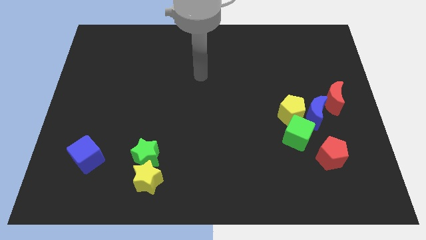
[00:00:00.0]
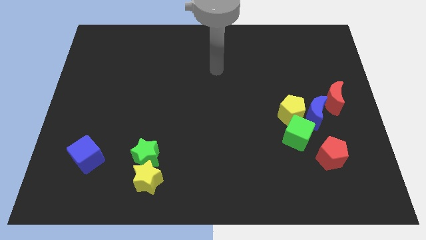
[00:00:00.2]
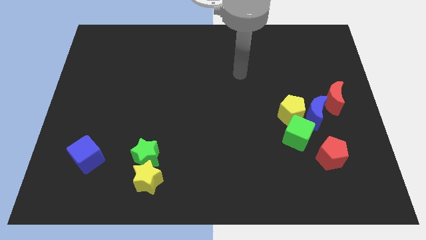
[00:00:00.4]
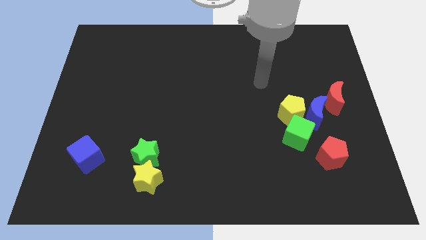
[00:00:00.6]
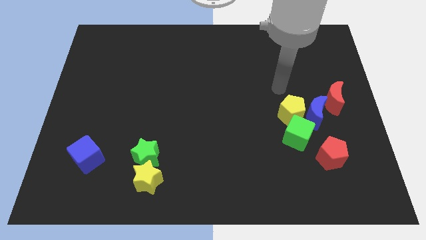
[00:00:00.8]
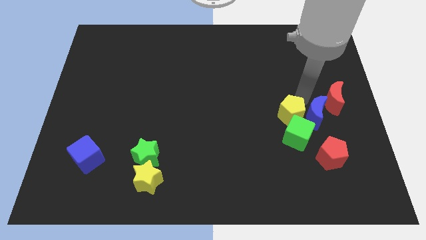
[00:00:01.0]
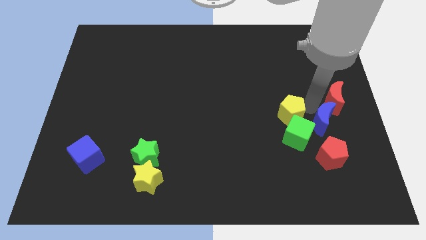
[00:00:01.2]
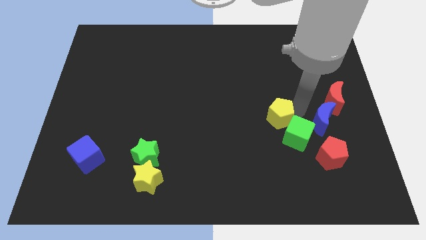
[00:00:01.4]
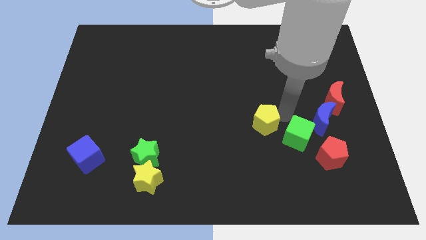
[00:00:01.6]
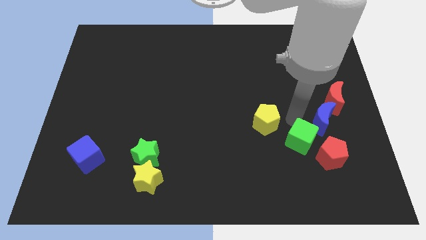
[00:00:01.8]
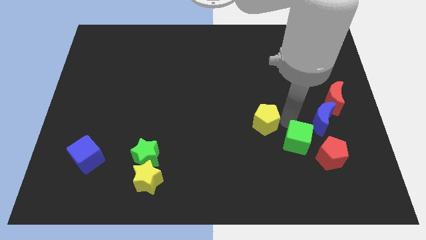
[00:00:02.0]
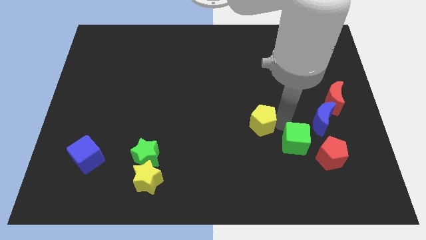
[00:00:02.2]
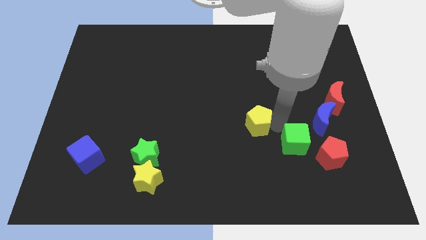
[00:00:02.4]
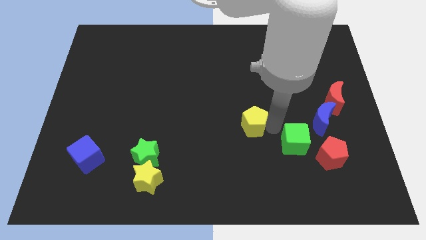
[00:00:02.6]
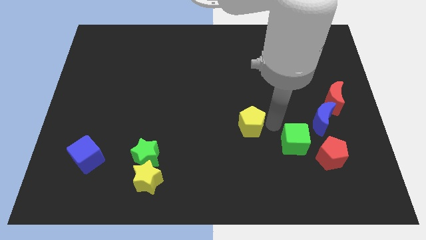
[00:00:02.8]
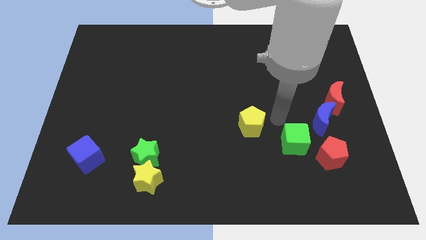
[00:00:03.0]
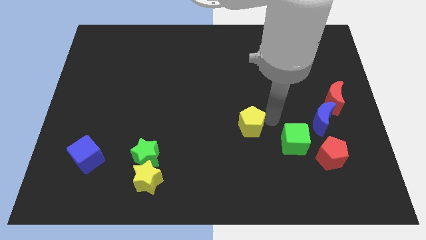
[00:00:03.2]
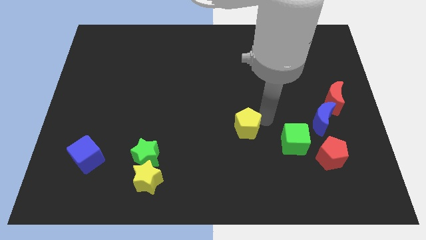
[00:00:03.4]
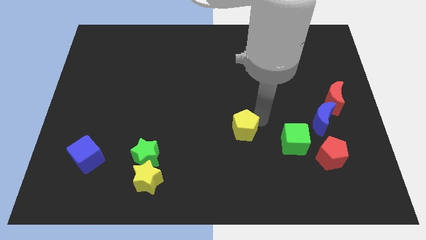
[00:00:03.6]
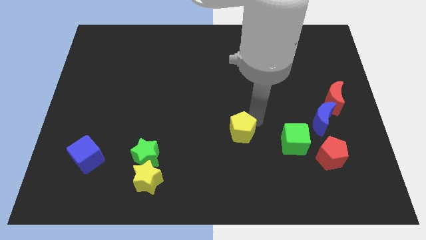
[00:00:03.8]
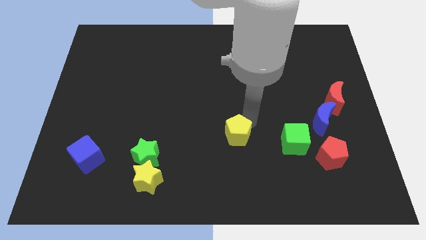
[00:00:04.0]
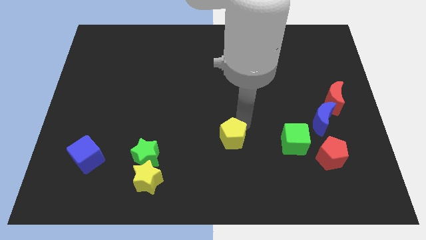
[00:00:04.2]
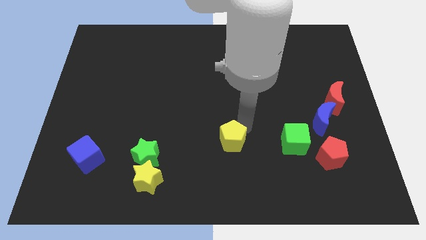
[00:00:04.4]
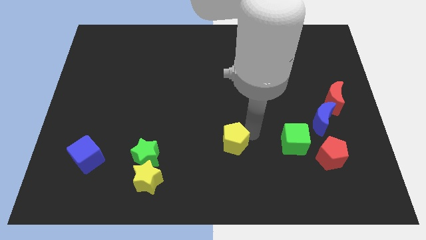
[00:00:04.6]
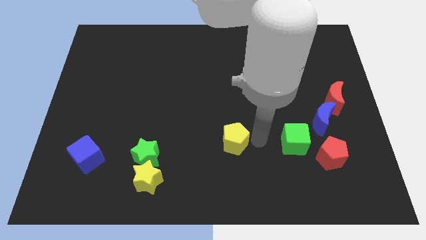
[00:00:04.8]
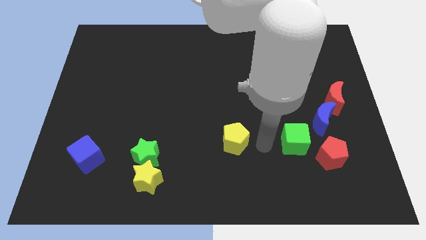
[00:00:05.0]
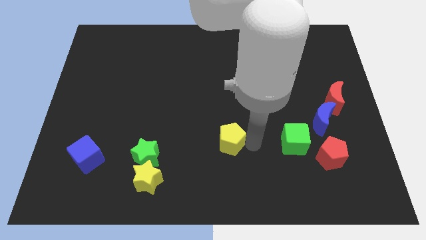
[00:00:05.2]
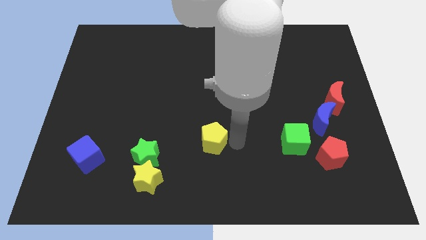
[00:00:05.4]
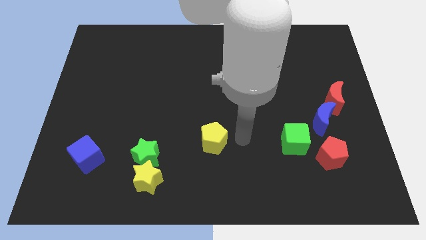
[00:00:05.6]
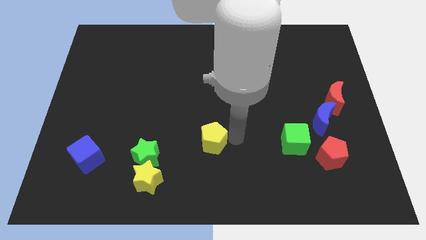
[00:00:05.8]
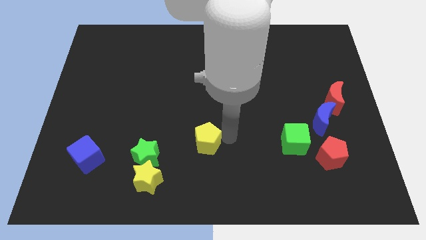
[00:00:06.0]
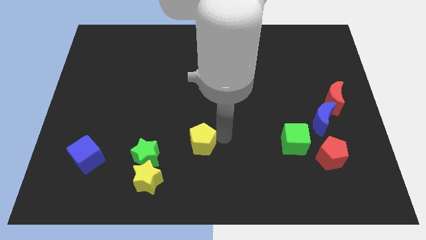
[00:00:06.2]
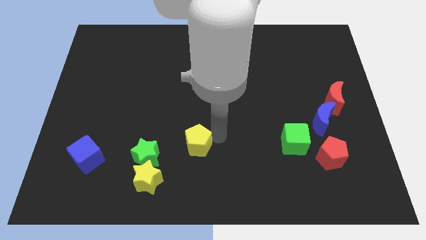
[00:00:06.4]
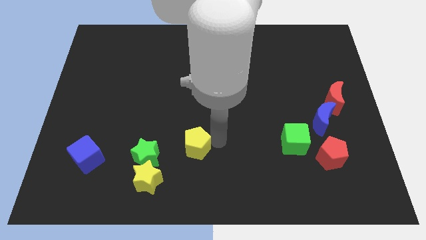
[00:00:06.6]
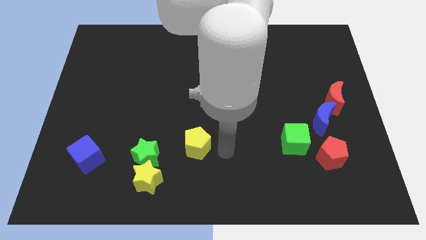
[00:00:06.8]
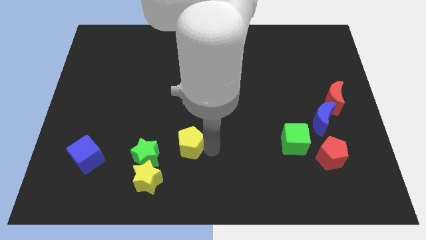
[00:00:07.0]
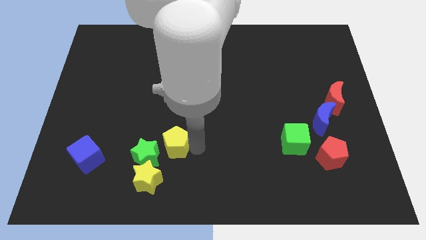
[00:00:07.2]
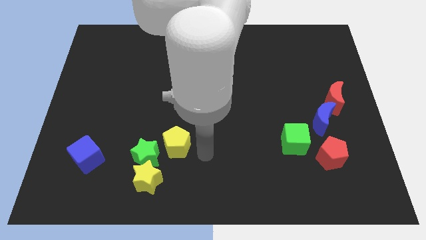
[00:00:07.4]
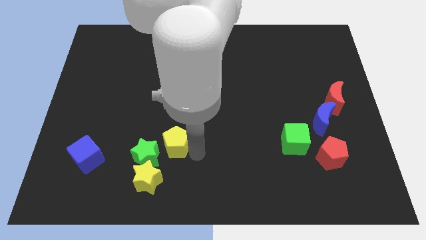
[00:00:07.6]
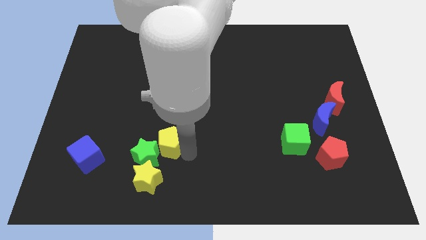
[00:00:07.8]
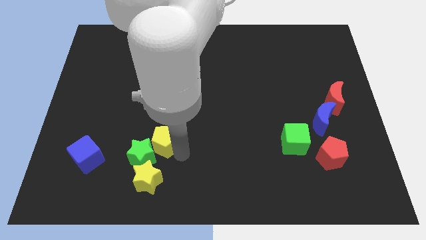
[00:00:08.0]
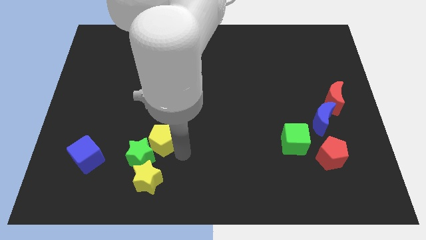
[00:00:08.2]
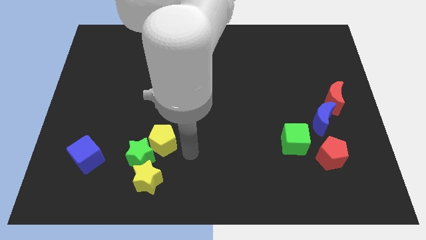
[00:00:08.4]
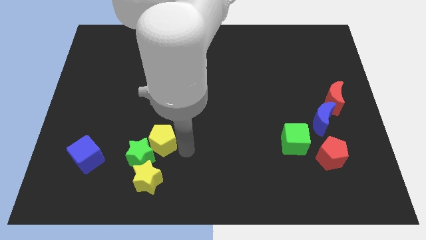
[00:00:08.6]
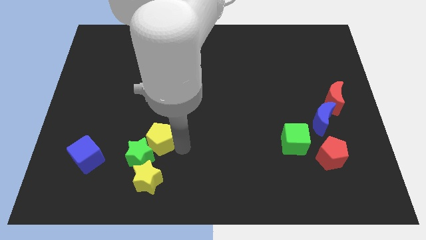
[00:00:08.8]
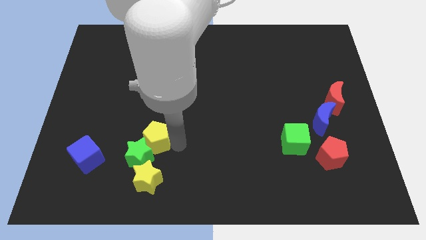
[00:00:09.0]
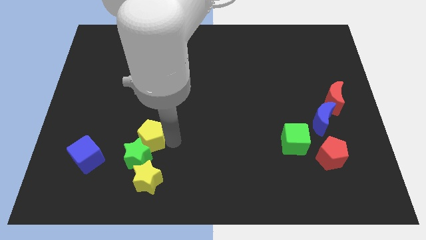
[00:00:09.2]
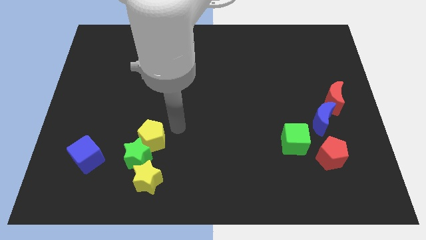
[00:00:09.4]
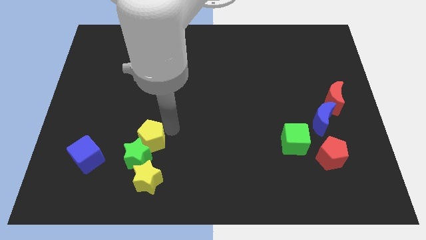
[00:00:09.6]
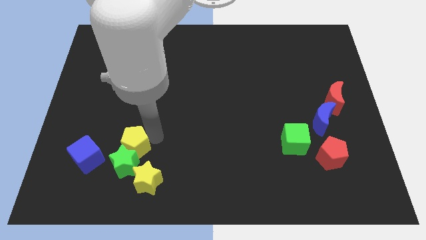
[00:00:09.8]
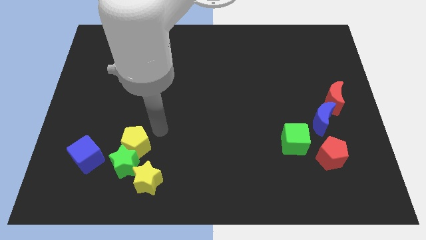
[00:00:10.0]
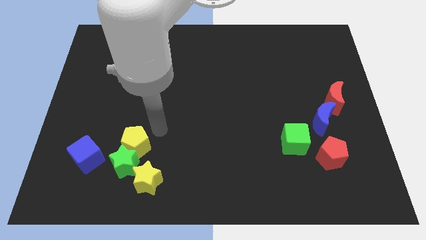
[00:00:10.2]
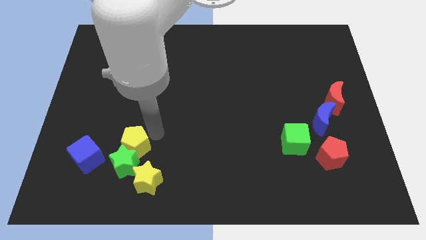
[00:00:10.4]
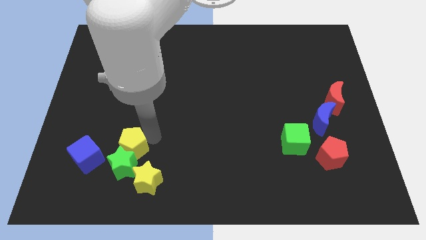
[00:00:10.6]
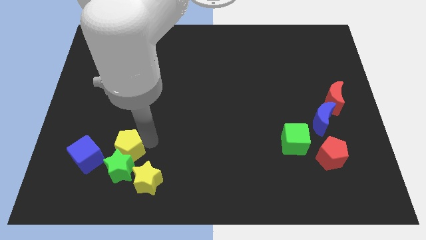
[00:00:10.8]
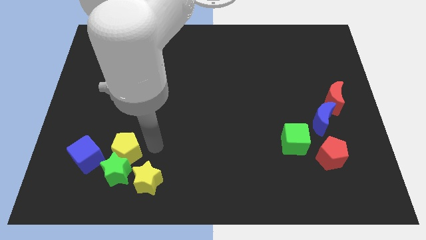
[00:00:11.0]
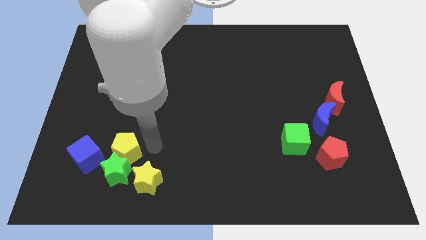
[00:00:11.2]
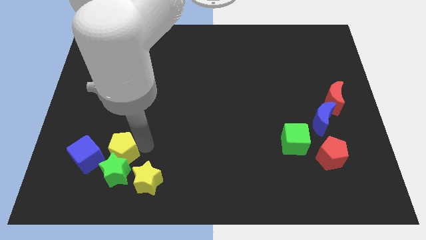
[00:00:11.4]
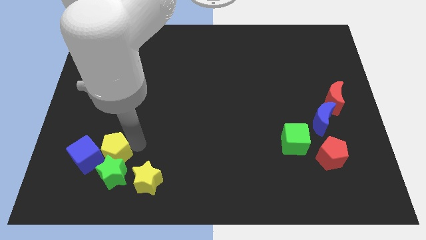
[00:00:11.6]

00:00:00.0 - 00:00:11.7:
push the yellow pentagon towards the blue cube

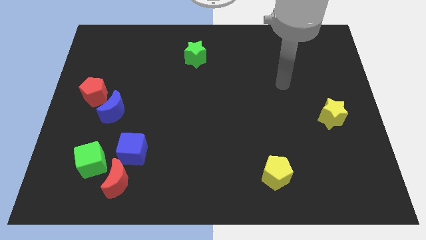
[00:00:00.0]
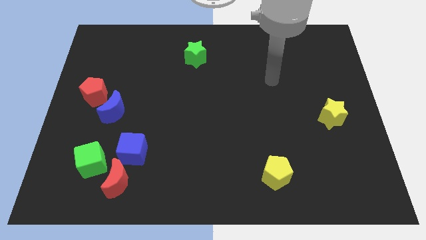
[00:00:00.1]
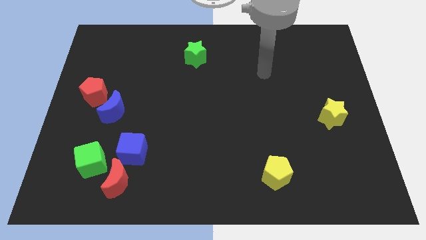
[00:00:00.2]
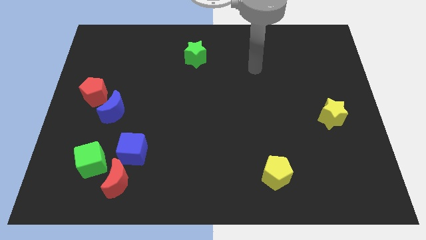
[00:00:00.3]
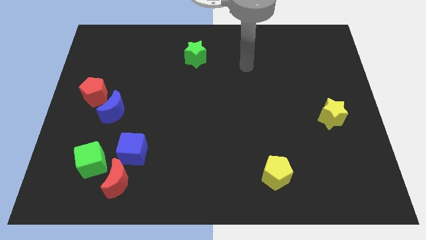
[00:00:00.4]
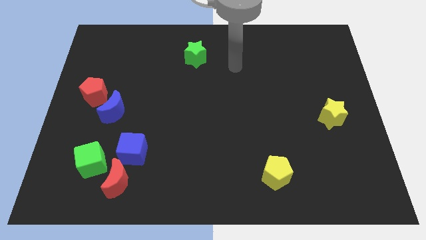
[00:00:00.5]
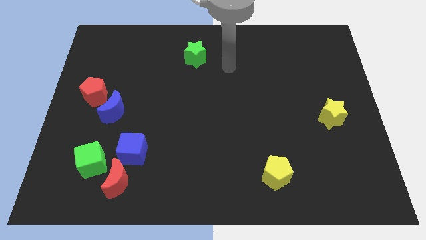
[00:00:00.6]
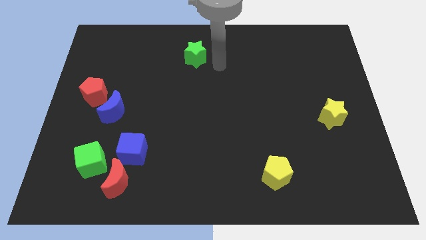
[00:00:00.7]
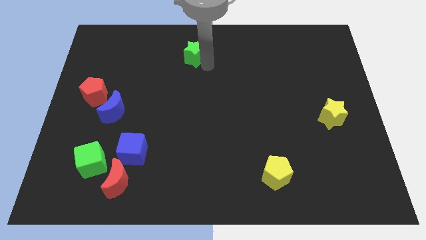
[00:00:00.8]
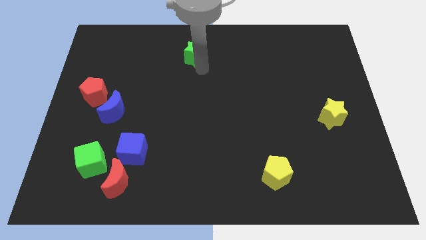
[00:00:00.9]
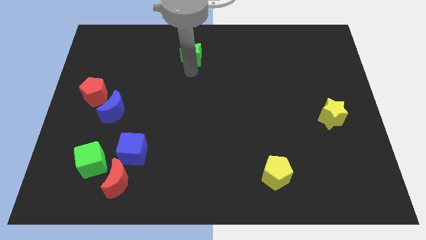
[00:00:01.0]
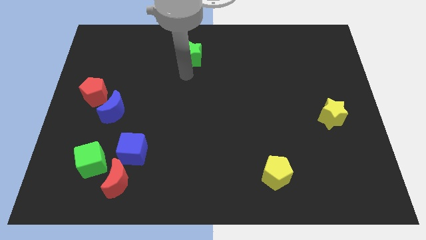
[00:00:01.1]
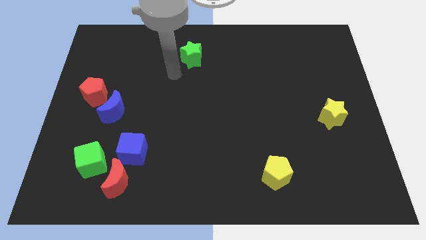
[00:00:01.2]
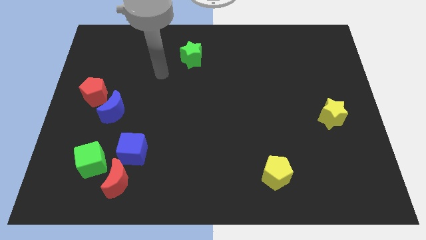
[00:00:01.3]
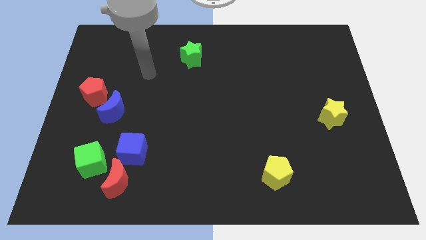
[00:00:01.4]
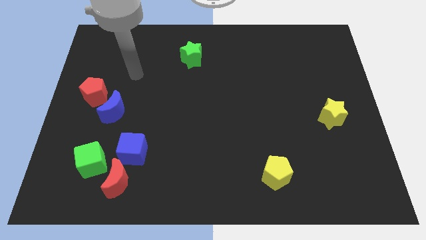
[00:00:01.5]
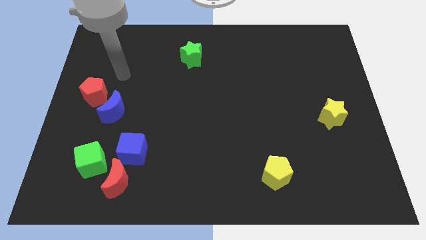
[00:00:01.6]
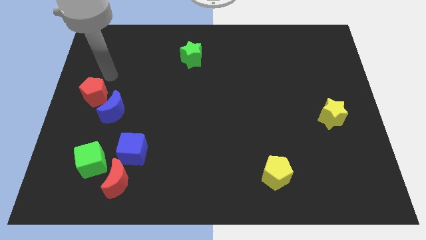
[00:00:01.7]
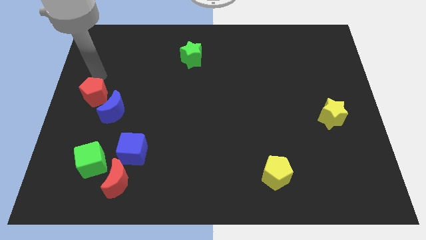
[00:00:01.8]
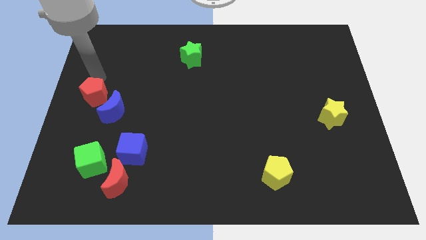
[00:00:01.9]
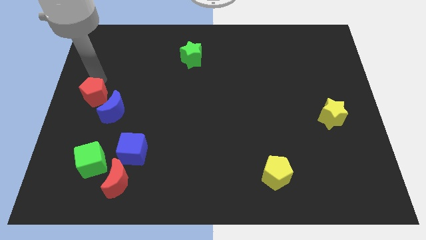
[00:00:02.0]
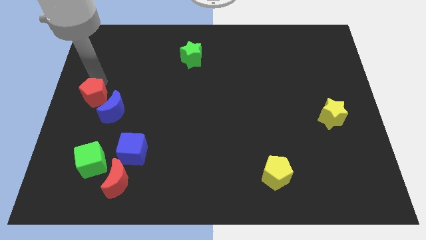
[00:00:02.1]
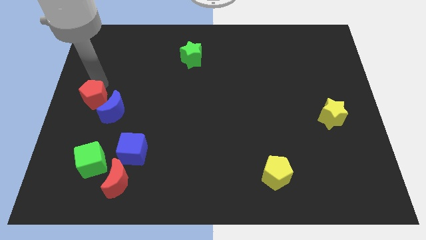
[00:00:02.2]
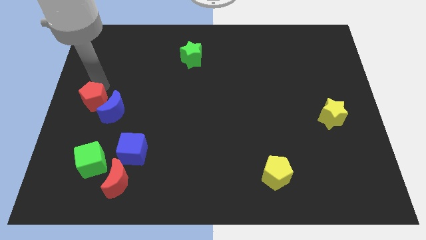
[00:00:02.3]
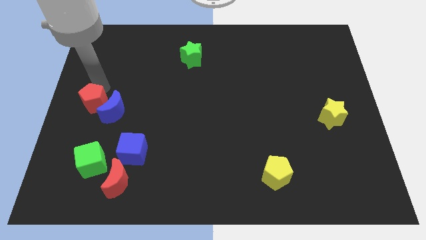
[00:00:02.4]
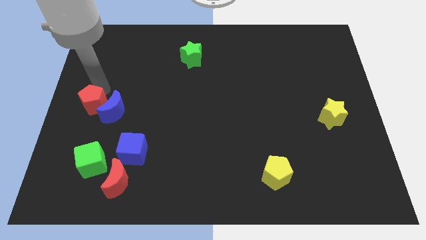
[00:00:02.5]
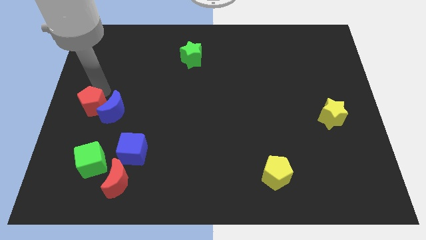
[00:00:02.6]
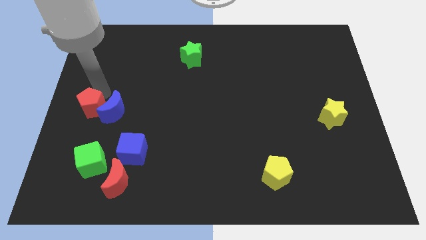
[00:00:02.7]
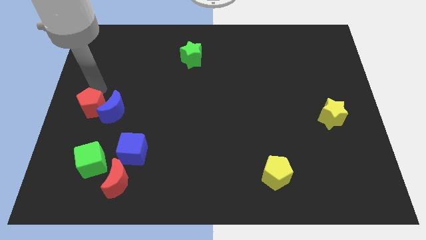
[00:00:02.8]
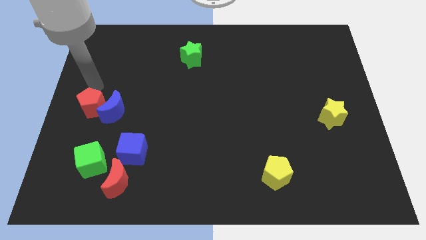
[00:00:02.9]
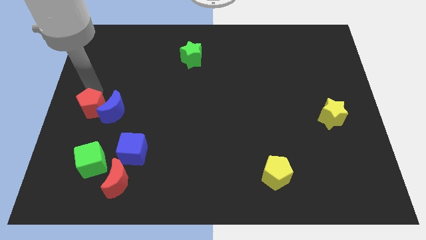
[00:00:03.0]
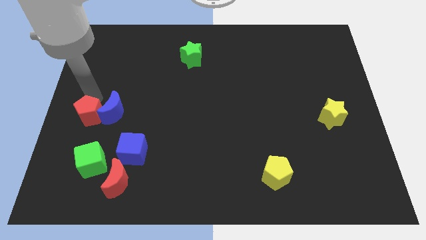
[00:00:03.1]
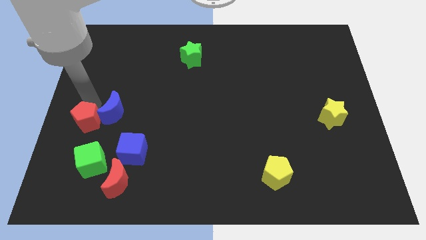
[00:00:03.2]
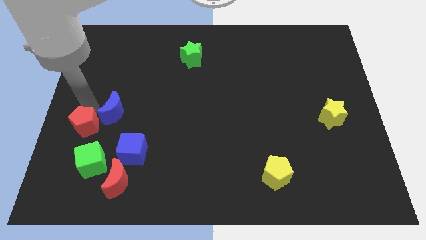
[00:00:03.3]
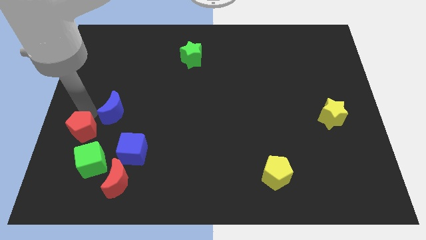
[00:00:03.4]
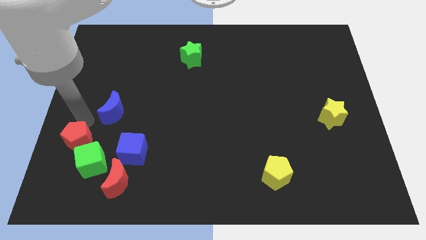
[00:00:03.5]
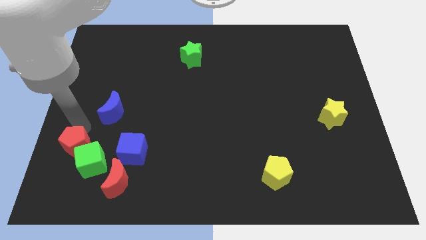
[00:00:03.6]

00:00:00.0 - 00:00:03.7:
put the red pentagon to the green cube
